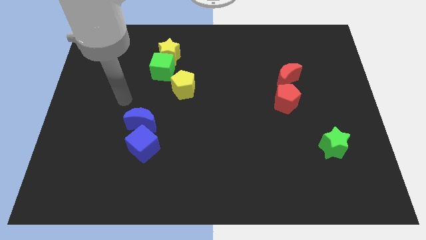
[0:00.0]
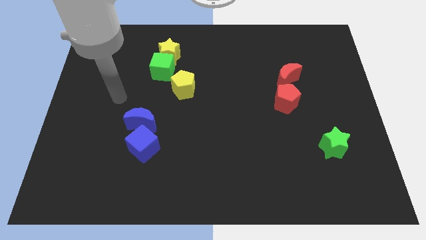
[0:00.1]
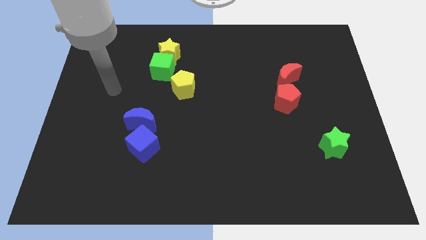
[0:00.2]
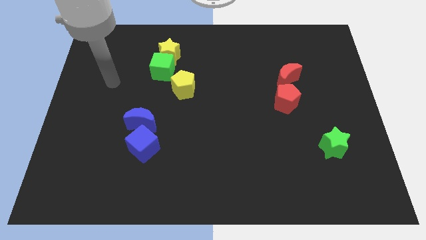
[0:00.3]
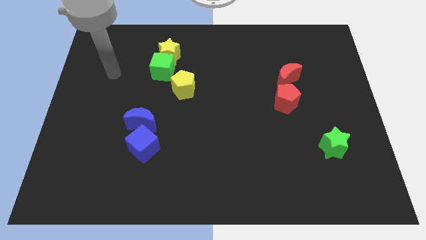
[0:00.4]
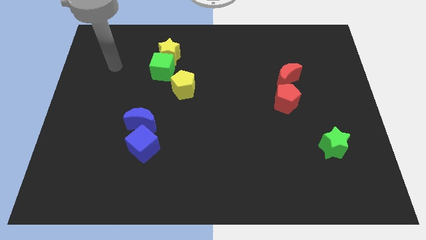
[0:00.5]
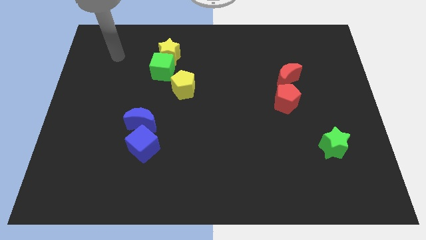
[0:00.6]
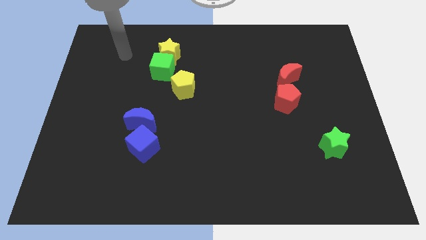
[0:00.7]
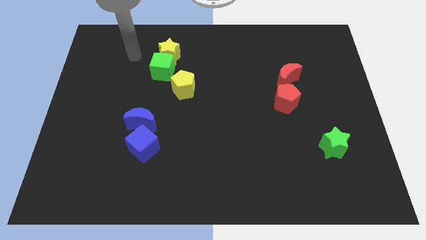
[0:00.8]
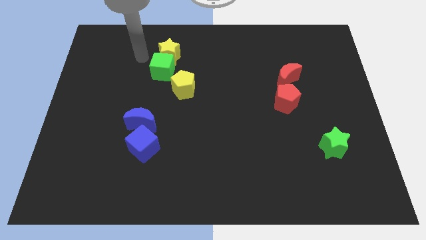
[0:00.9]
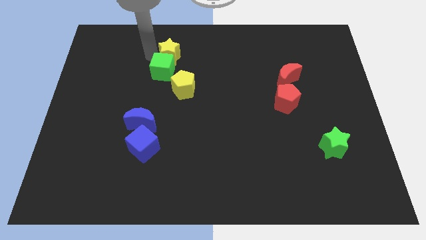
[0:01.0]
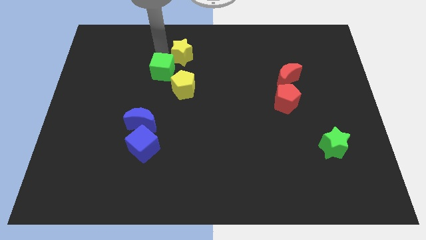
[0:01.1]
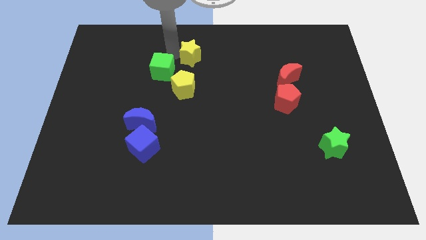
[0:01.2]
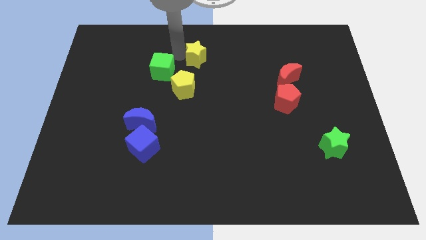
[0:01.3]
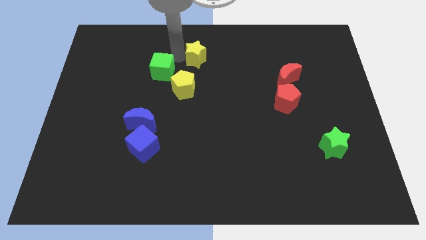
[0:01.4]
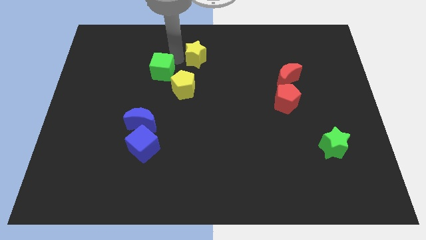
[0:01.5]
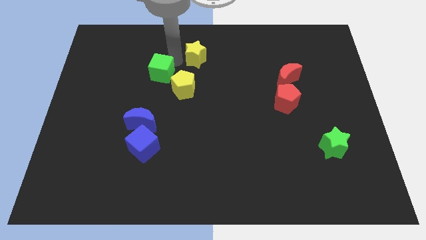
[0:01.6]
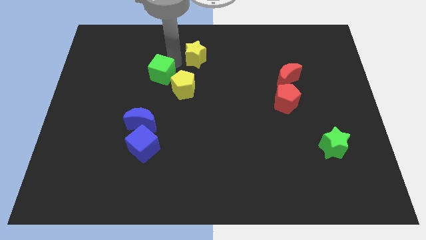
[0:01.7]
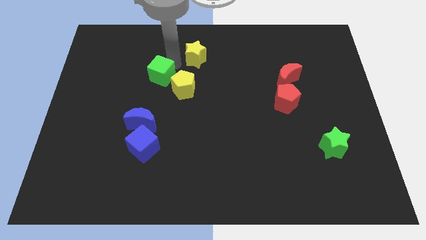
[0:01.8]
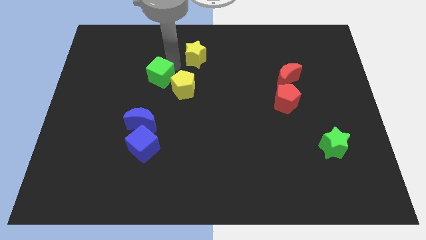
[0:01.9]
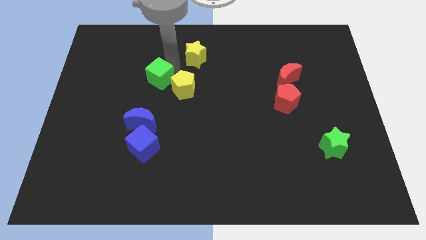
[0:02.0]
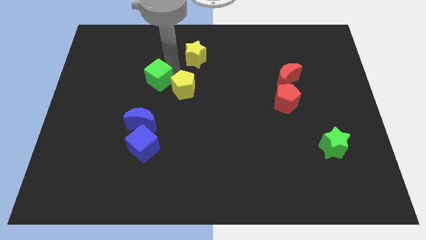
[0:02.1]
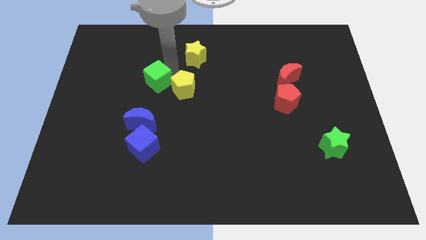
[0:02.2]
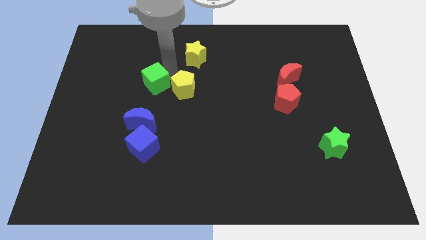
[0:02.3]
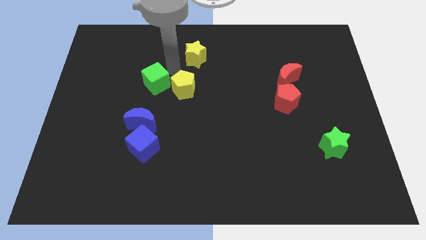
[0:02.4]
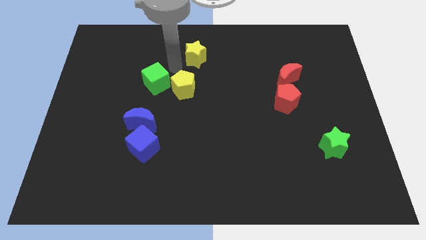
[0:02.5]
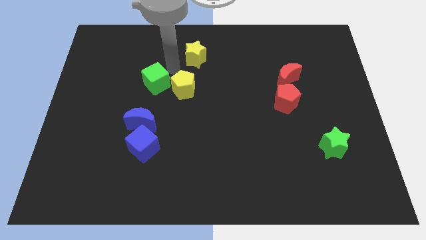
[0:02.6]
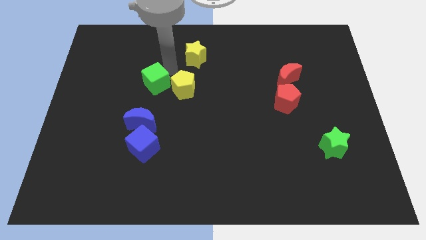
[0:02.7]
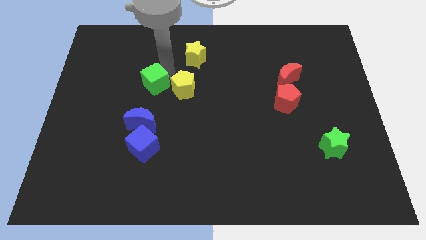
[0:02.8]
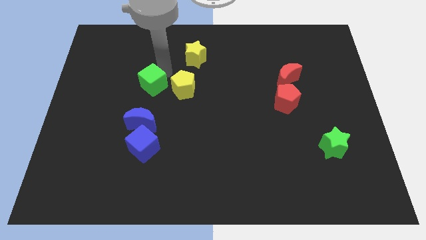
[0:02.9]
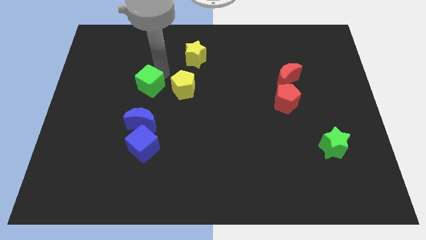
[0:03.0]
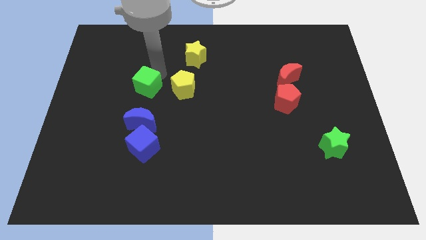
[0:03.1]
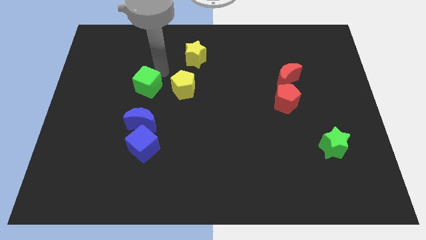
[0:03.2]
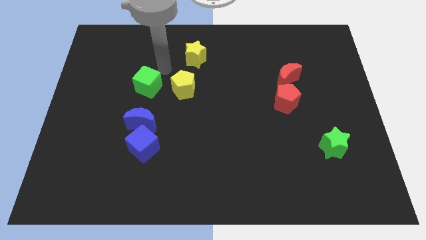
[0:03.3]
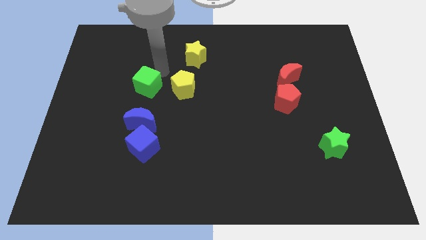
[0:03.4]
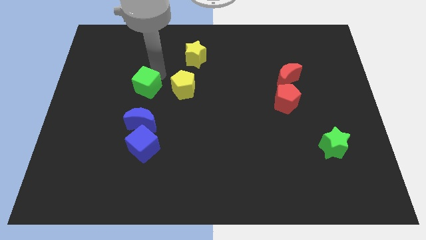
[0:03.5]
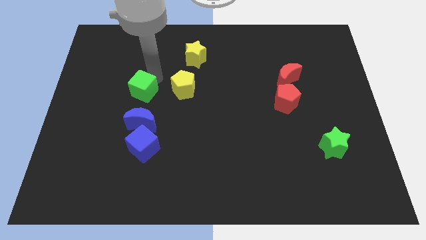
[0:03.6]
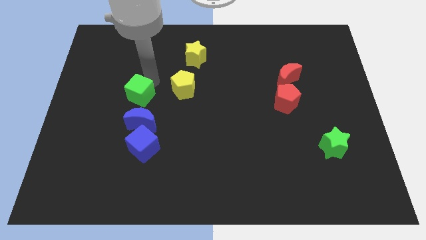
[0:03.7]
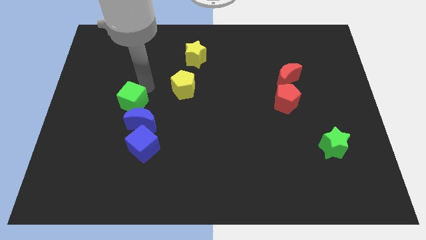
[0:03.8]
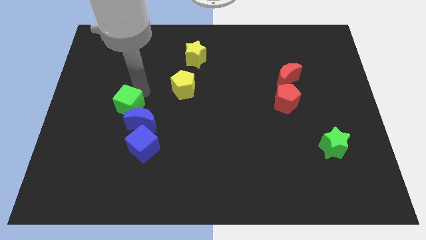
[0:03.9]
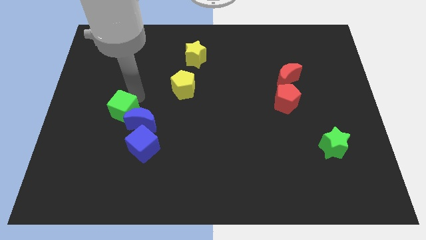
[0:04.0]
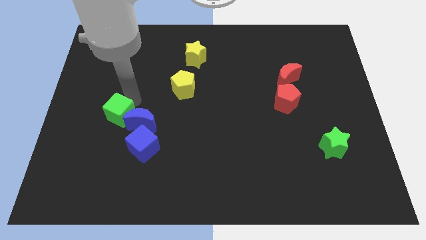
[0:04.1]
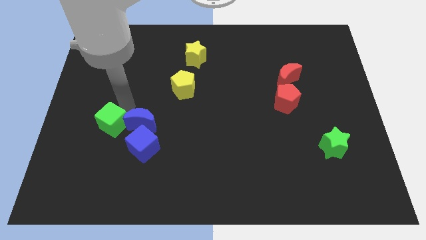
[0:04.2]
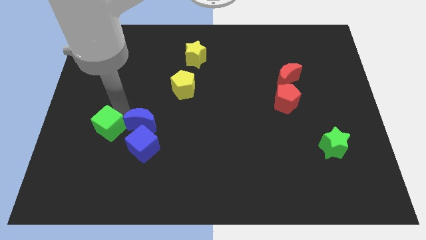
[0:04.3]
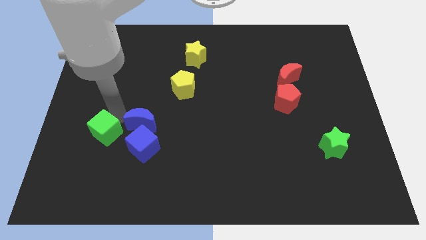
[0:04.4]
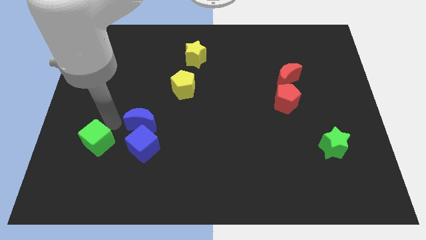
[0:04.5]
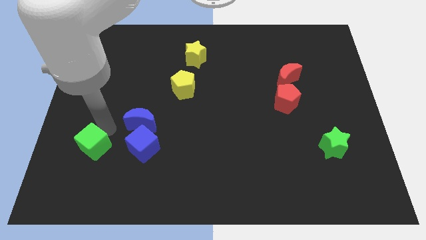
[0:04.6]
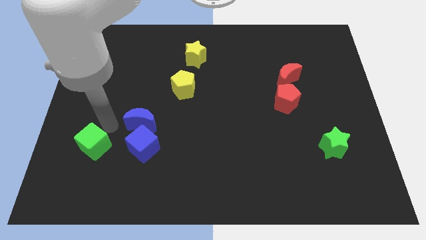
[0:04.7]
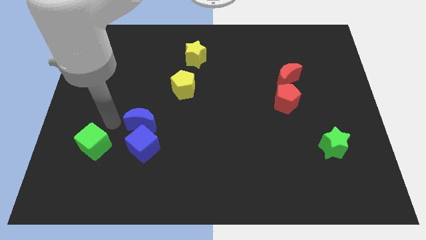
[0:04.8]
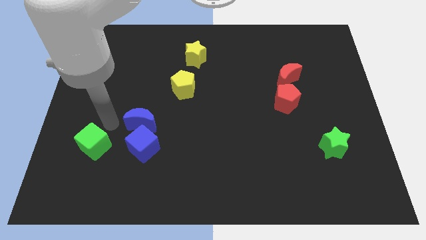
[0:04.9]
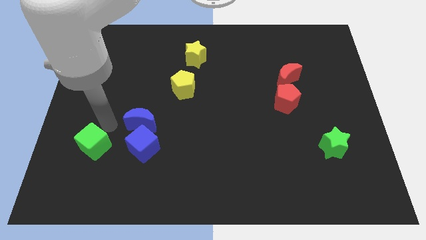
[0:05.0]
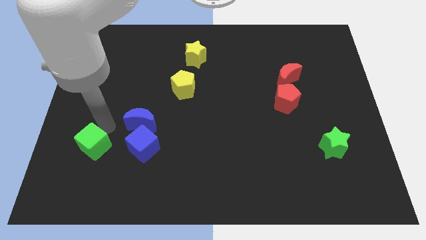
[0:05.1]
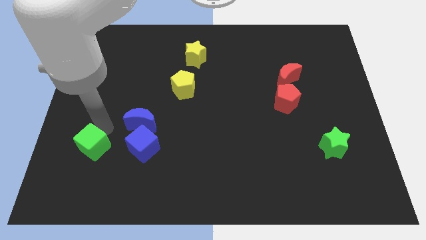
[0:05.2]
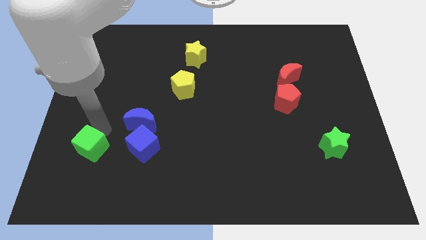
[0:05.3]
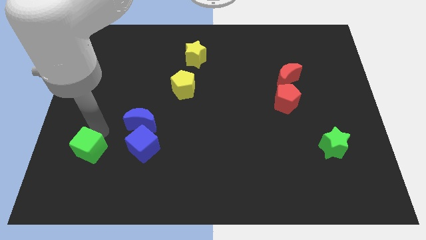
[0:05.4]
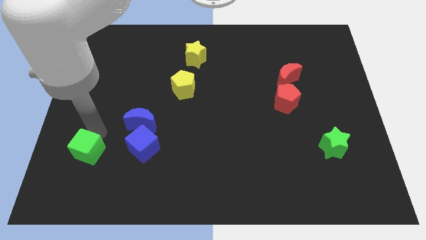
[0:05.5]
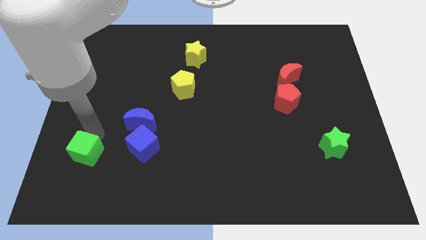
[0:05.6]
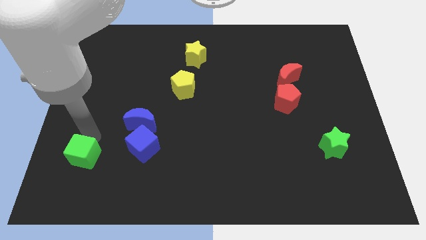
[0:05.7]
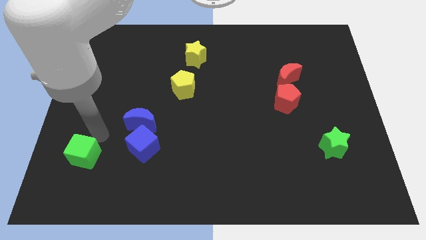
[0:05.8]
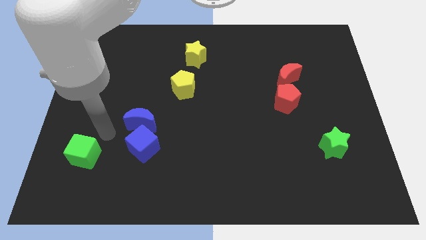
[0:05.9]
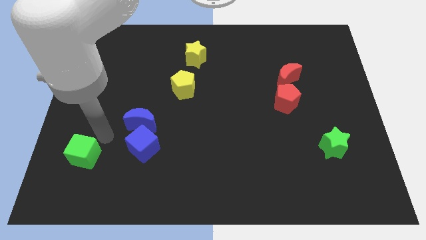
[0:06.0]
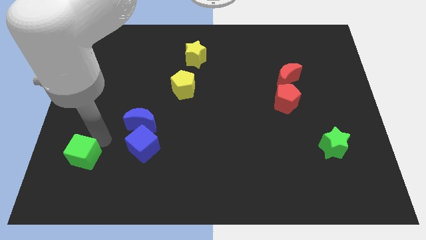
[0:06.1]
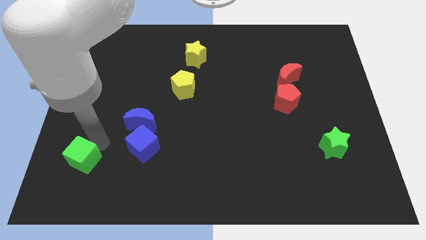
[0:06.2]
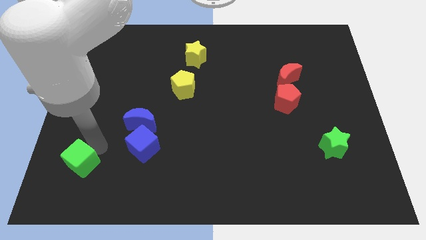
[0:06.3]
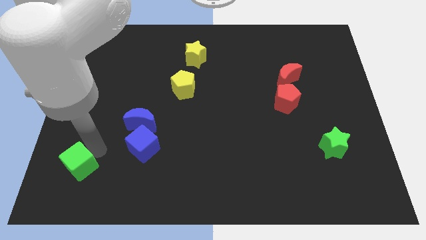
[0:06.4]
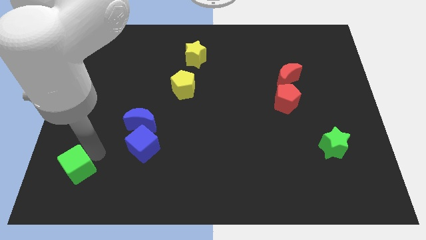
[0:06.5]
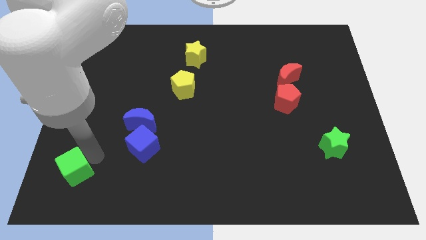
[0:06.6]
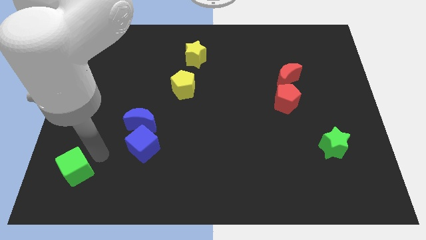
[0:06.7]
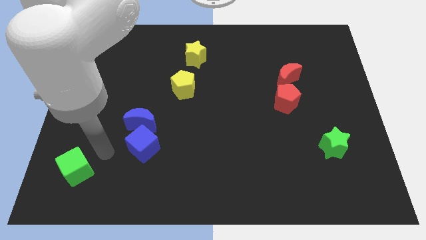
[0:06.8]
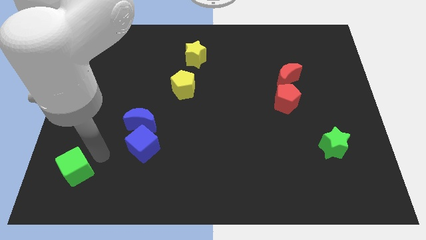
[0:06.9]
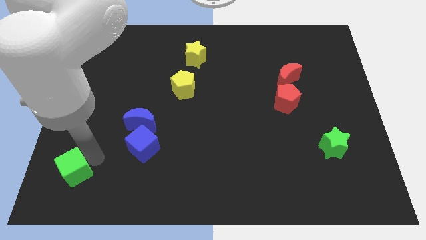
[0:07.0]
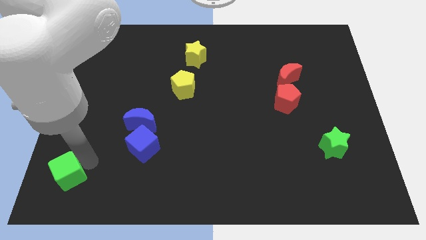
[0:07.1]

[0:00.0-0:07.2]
push the green cube to the bottom left corner
